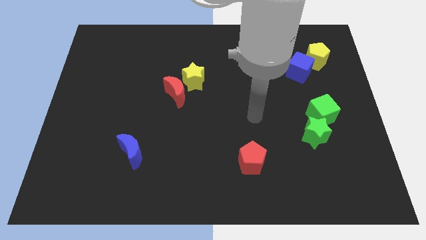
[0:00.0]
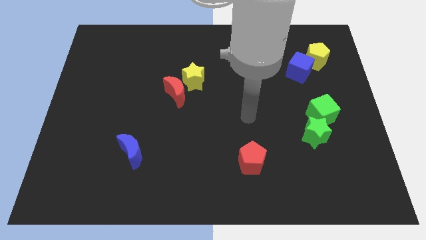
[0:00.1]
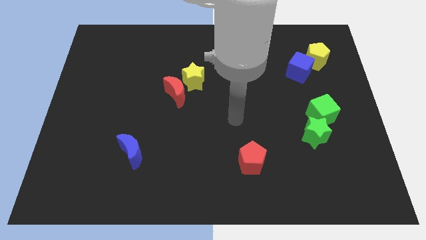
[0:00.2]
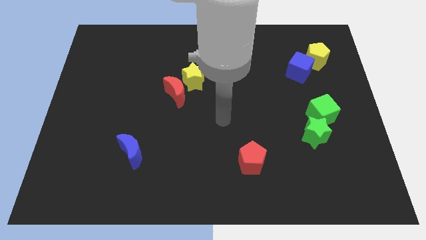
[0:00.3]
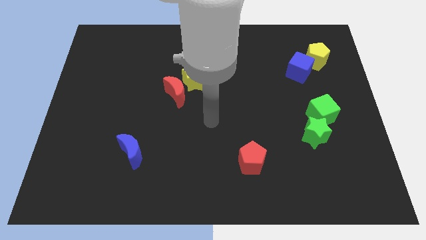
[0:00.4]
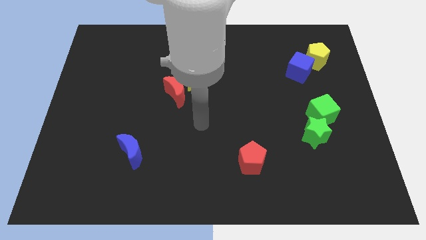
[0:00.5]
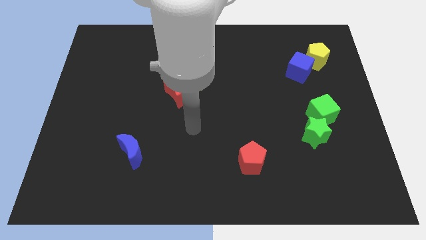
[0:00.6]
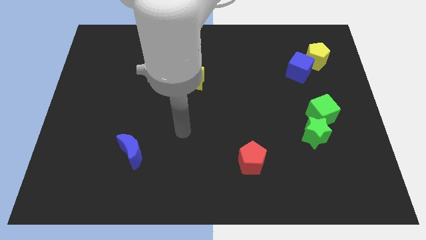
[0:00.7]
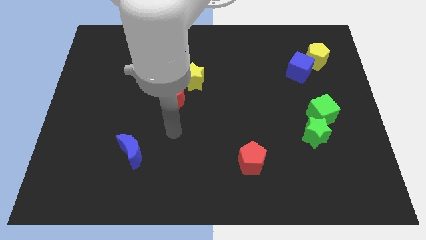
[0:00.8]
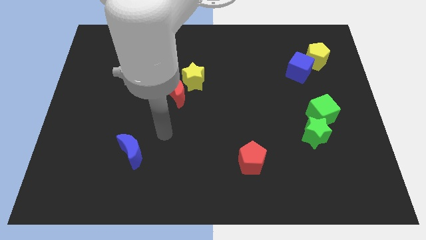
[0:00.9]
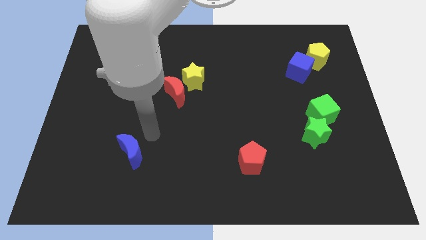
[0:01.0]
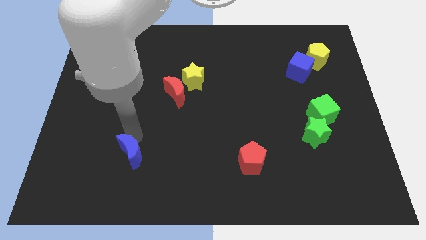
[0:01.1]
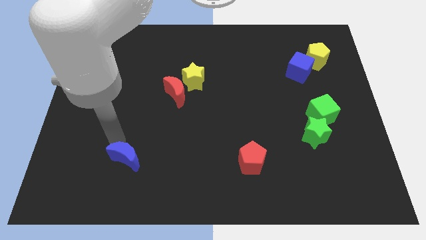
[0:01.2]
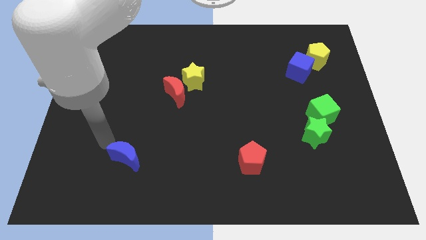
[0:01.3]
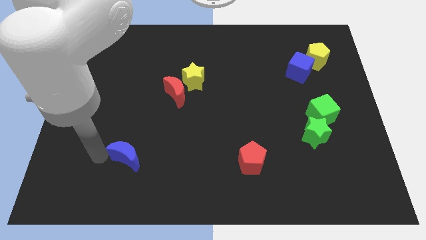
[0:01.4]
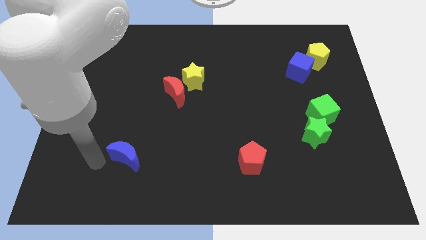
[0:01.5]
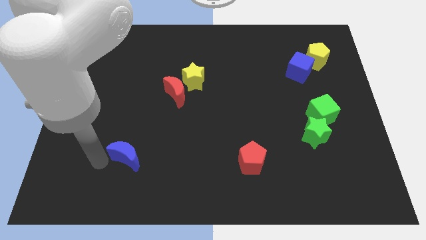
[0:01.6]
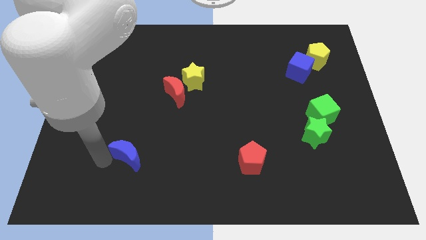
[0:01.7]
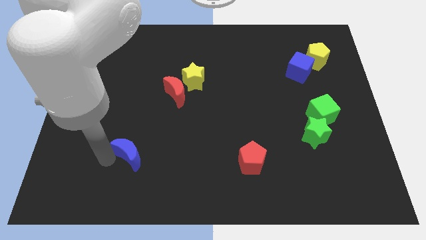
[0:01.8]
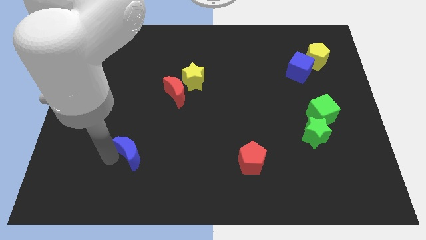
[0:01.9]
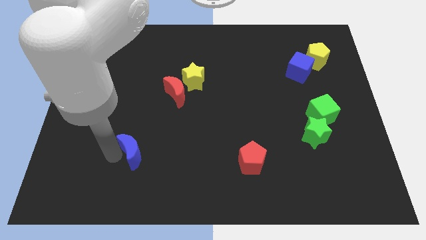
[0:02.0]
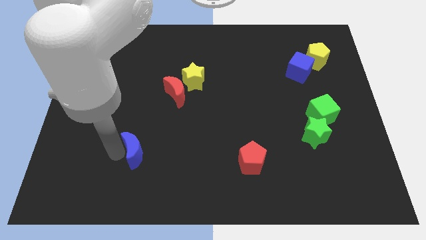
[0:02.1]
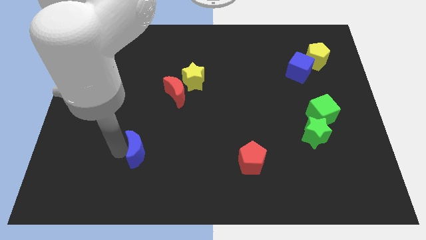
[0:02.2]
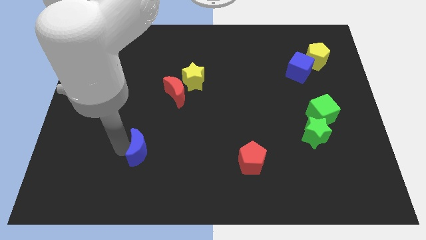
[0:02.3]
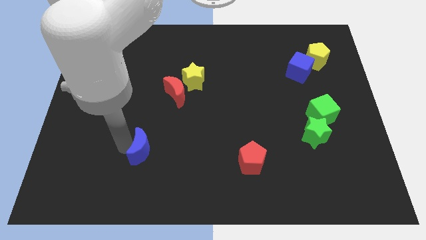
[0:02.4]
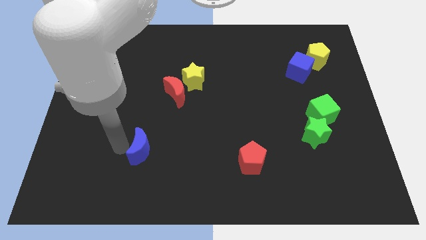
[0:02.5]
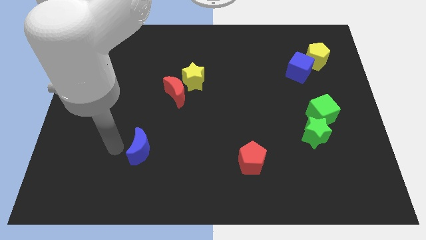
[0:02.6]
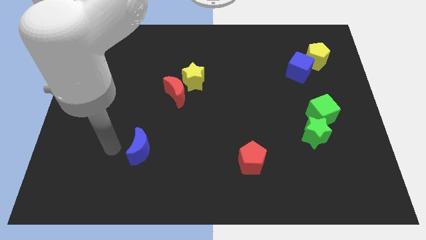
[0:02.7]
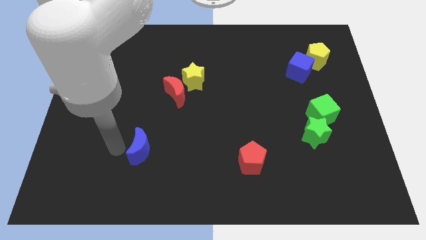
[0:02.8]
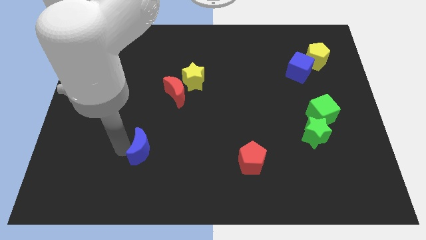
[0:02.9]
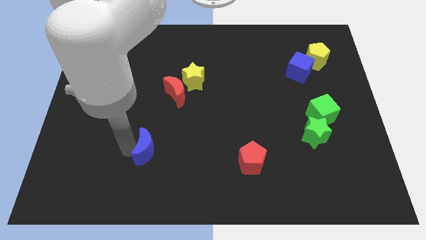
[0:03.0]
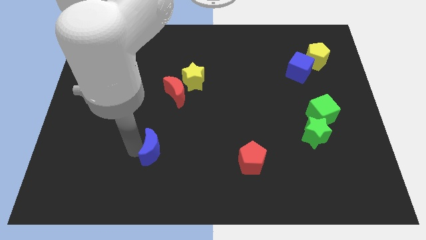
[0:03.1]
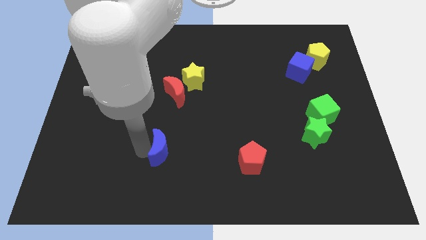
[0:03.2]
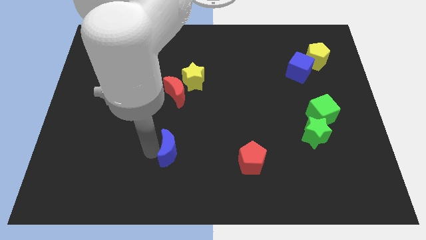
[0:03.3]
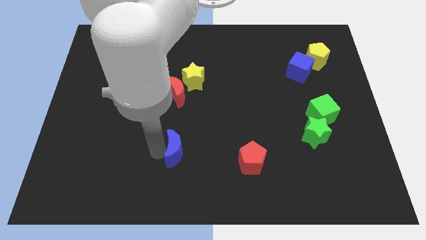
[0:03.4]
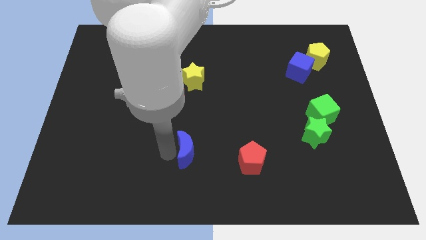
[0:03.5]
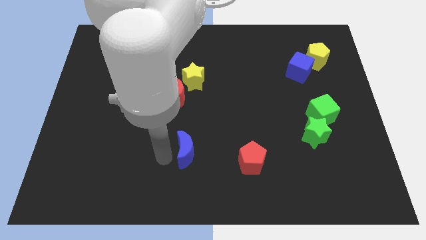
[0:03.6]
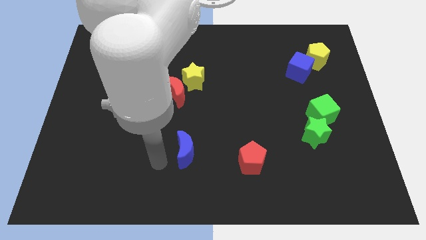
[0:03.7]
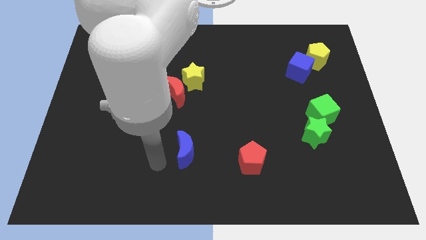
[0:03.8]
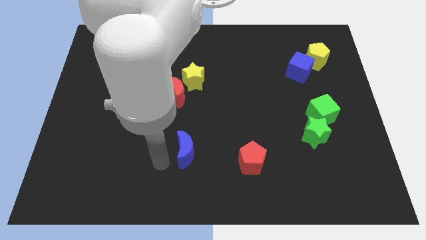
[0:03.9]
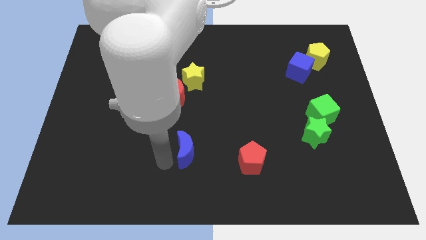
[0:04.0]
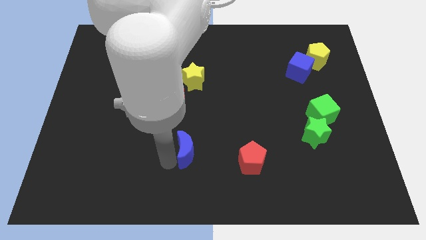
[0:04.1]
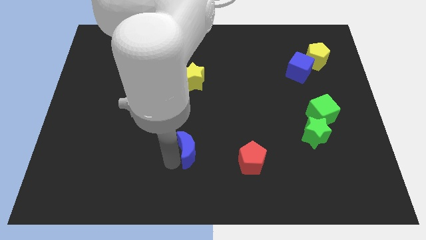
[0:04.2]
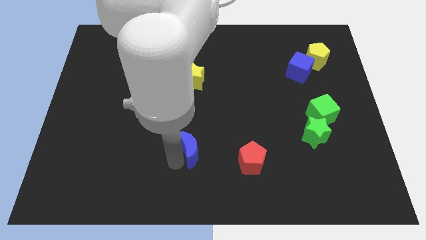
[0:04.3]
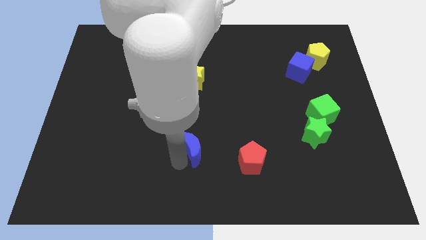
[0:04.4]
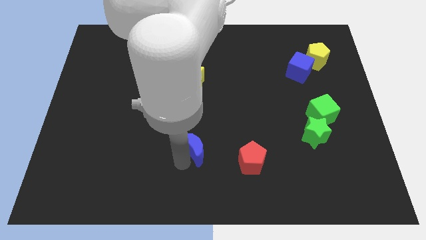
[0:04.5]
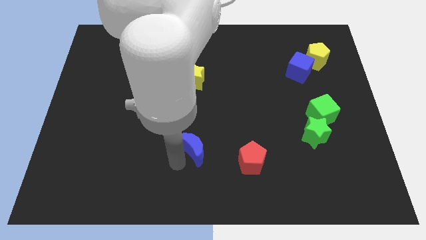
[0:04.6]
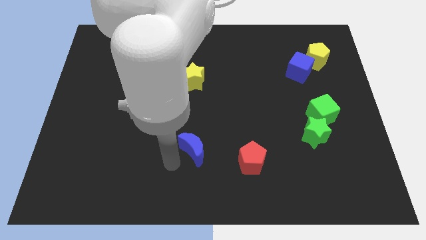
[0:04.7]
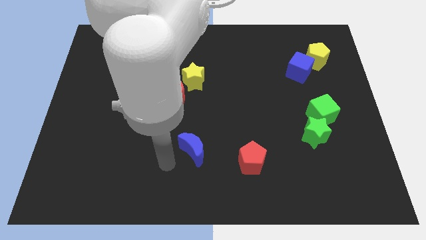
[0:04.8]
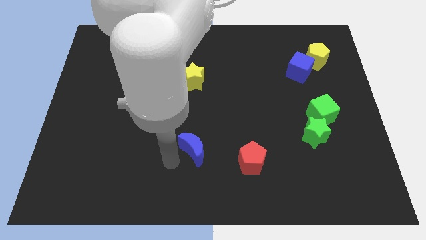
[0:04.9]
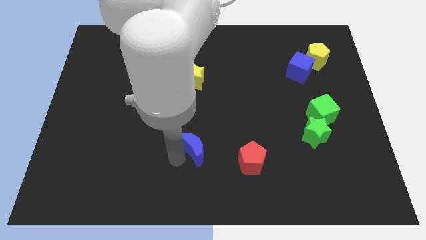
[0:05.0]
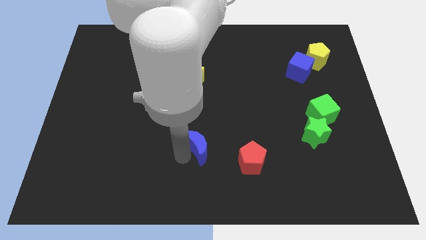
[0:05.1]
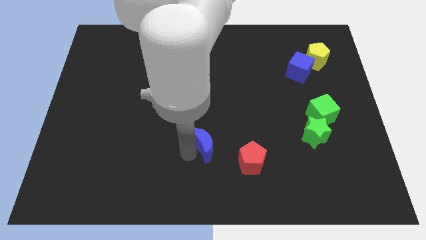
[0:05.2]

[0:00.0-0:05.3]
push the blue moon diagonally up and to the left of the red pentagon

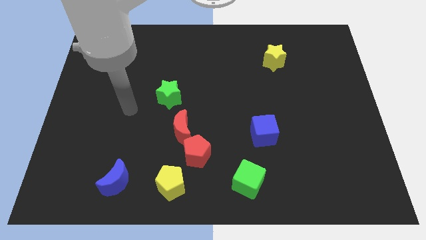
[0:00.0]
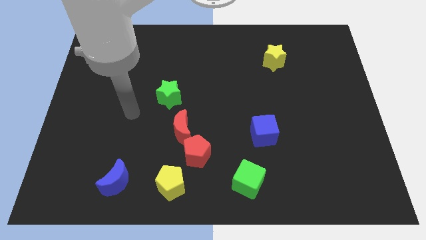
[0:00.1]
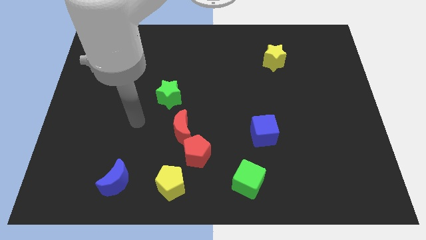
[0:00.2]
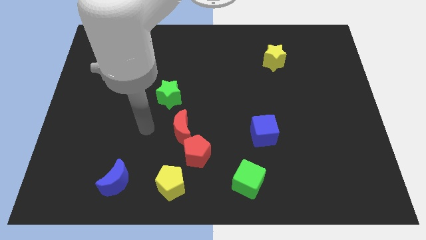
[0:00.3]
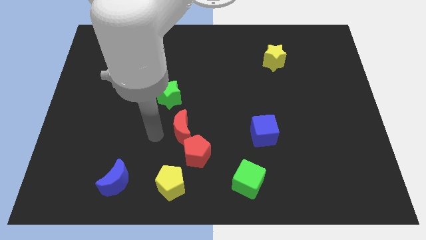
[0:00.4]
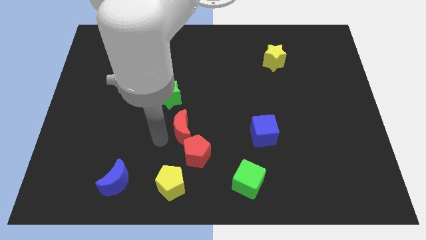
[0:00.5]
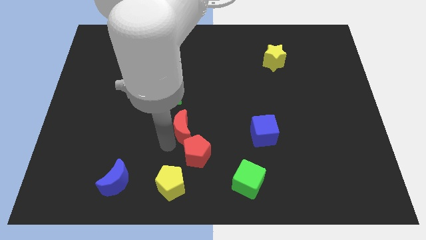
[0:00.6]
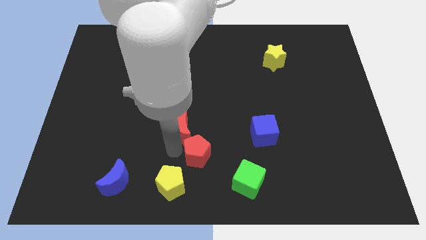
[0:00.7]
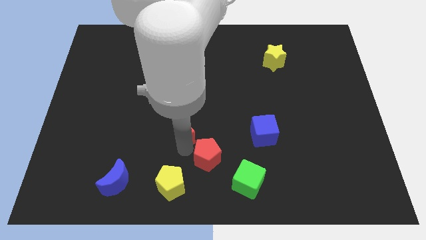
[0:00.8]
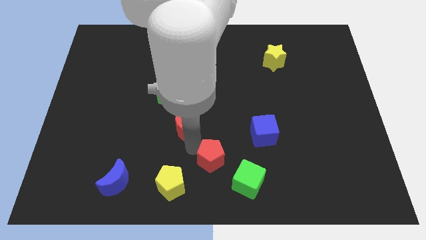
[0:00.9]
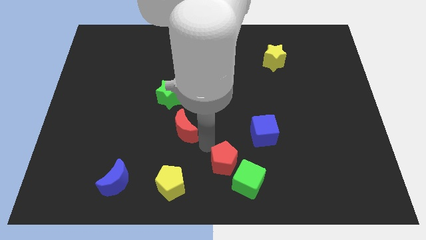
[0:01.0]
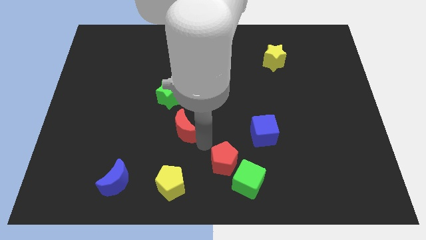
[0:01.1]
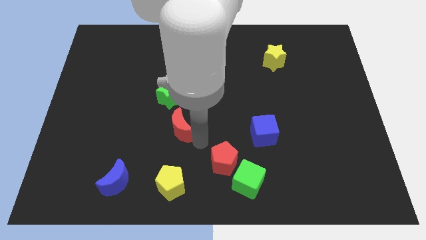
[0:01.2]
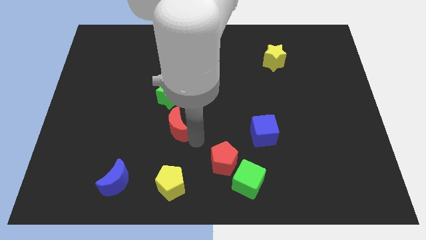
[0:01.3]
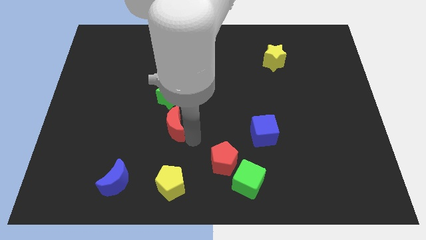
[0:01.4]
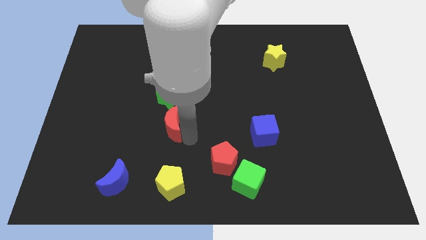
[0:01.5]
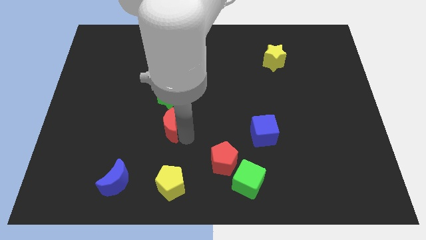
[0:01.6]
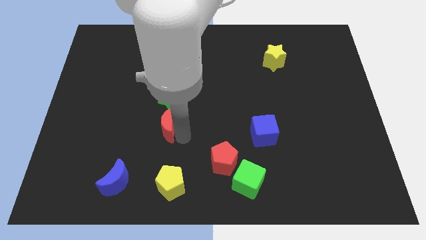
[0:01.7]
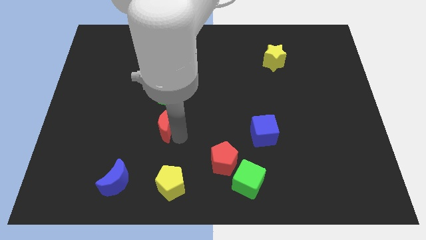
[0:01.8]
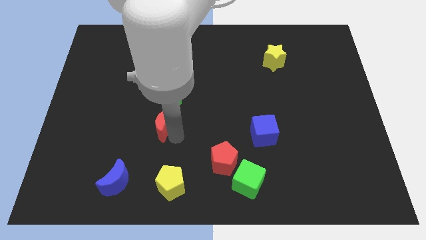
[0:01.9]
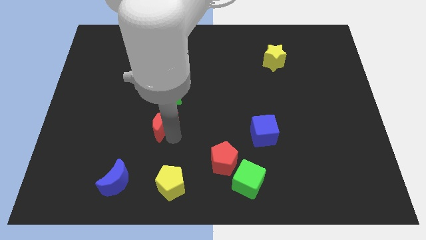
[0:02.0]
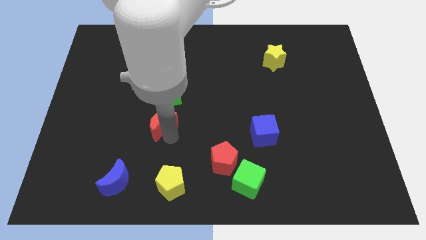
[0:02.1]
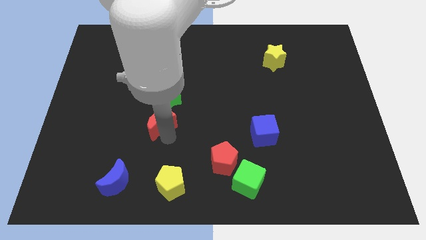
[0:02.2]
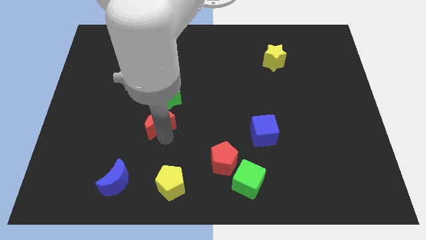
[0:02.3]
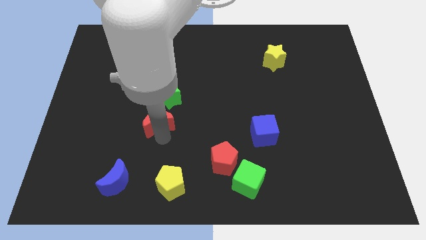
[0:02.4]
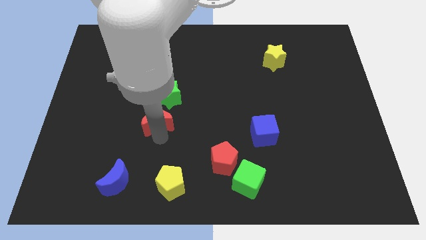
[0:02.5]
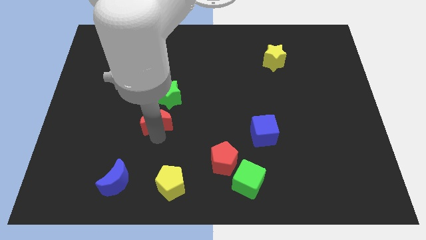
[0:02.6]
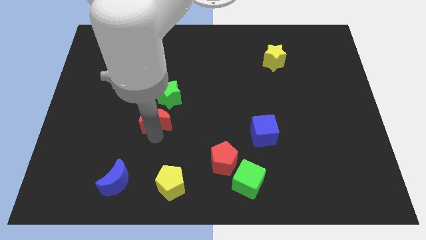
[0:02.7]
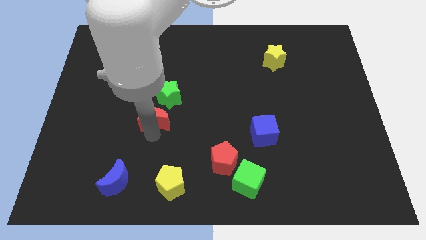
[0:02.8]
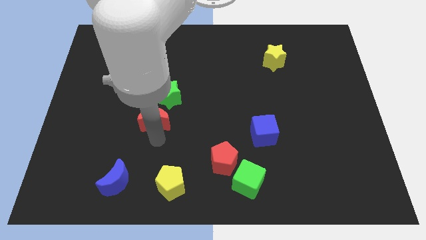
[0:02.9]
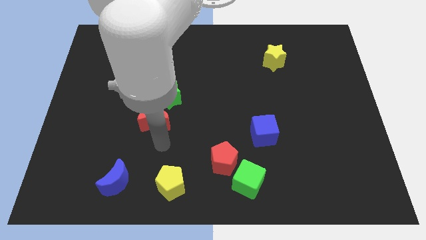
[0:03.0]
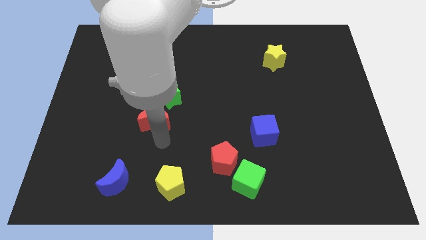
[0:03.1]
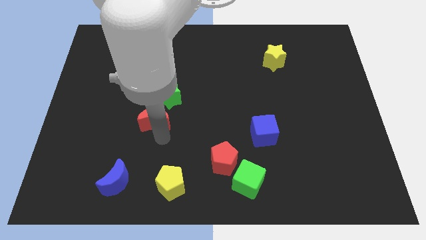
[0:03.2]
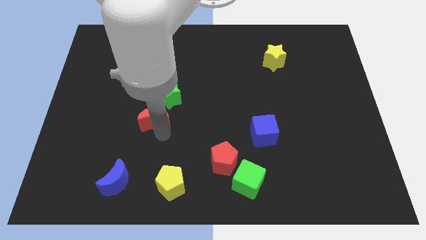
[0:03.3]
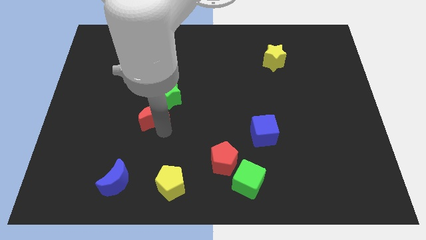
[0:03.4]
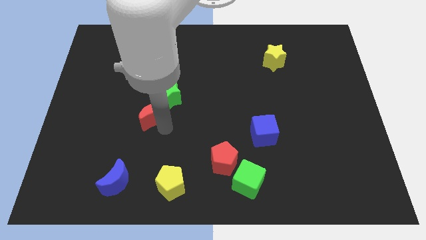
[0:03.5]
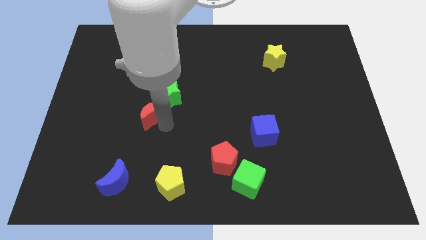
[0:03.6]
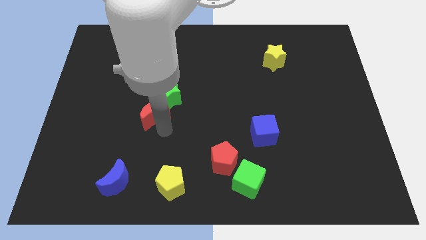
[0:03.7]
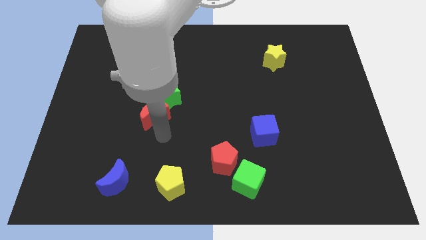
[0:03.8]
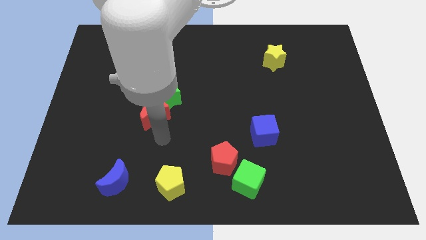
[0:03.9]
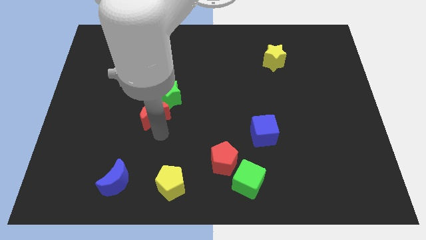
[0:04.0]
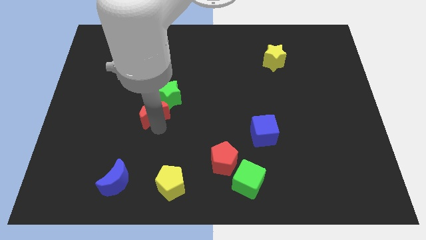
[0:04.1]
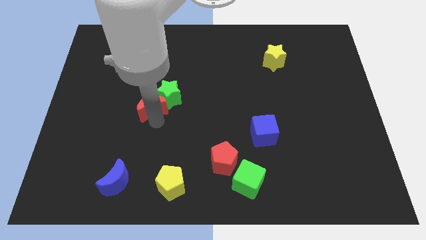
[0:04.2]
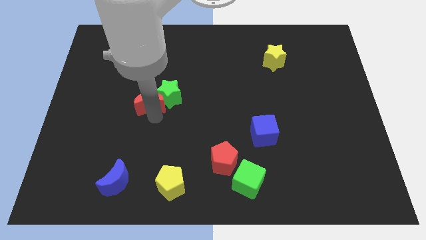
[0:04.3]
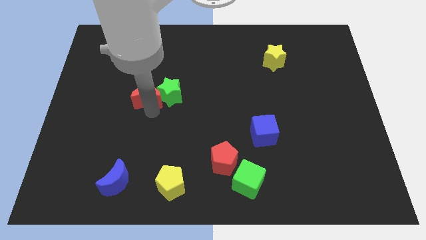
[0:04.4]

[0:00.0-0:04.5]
move the red moon to the top left of the green star
